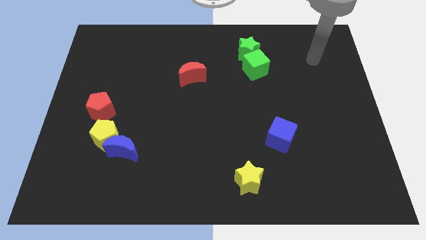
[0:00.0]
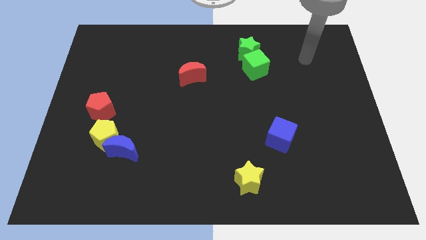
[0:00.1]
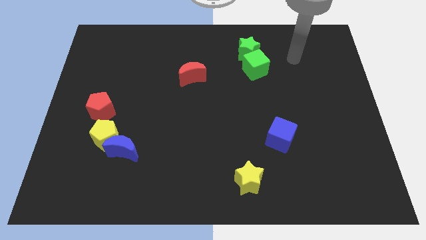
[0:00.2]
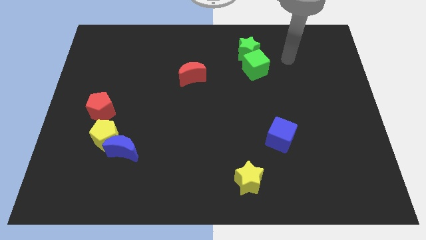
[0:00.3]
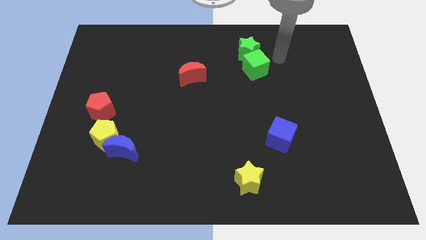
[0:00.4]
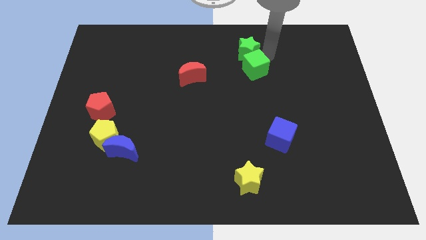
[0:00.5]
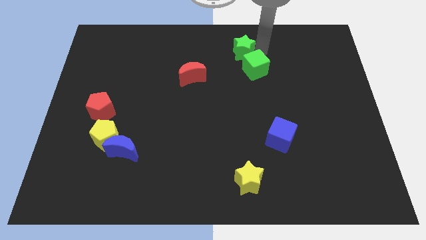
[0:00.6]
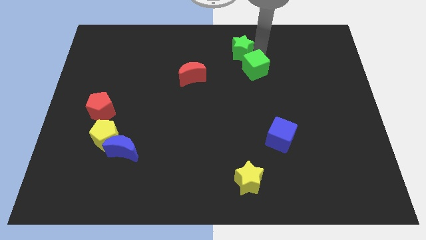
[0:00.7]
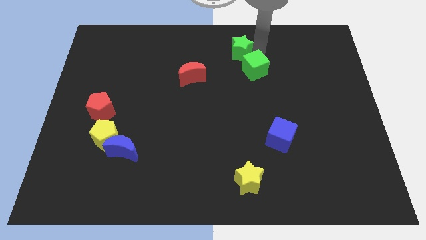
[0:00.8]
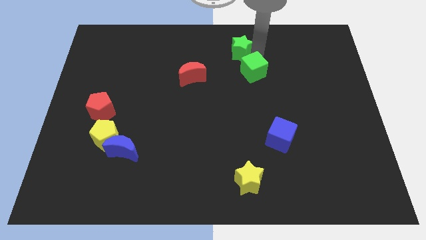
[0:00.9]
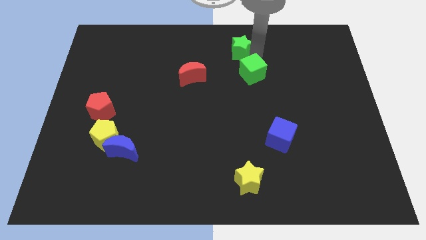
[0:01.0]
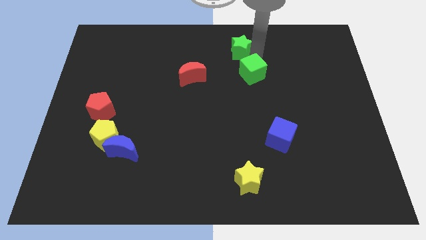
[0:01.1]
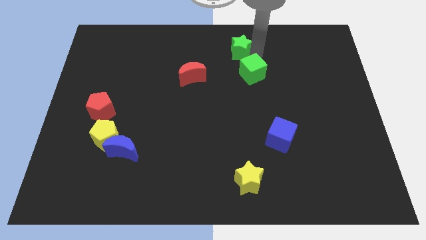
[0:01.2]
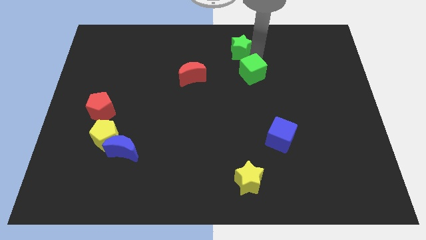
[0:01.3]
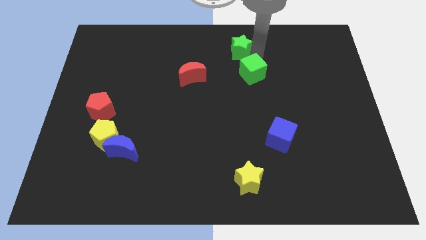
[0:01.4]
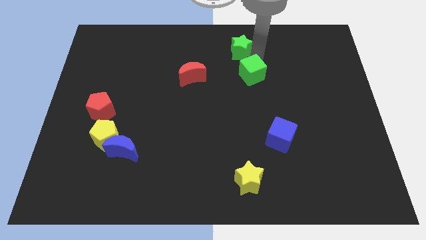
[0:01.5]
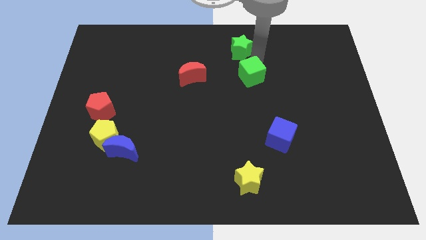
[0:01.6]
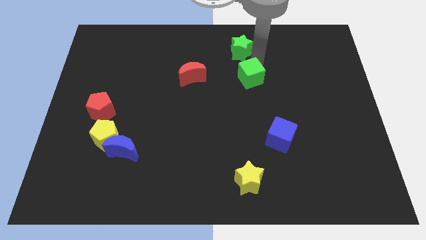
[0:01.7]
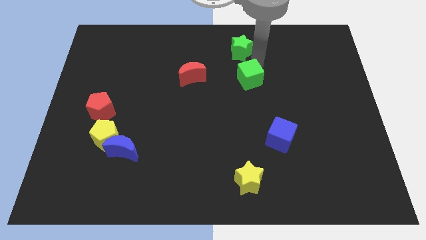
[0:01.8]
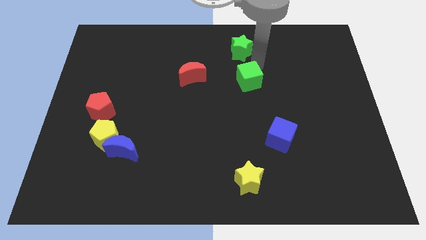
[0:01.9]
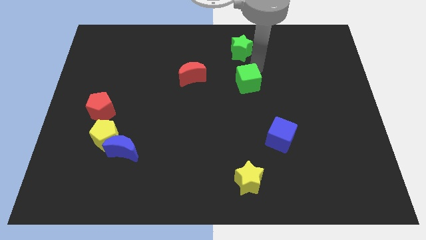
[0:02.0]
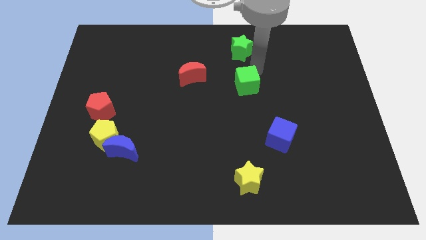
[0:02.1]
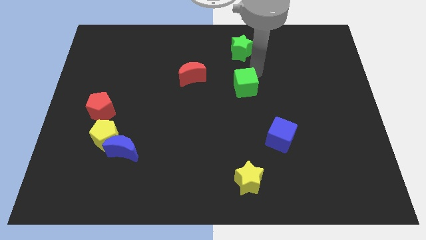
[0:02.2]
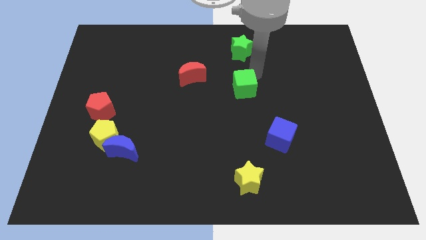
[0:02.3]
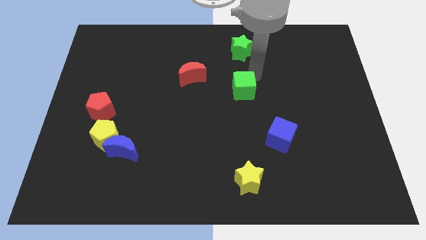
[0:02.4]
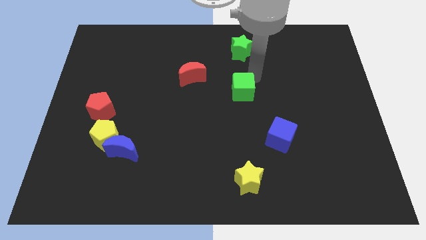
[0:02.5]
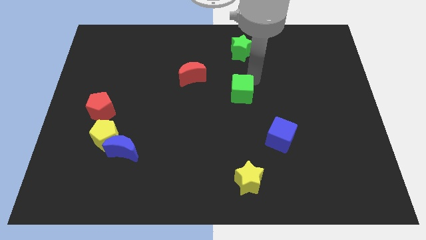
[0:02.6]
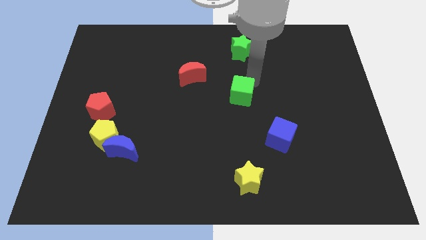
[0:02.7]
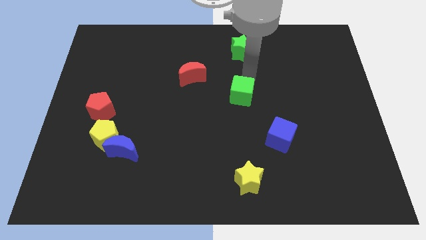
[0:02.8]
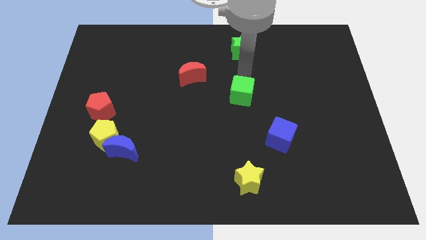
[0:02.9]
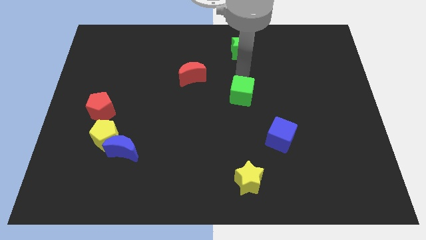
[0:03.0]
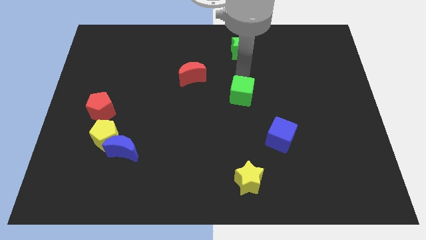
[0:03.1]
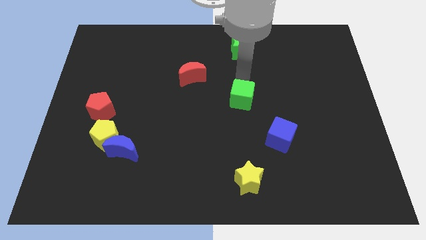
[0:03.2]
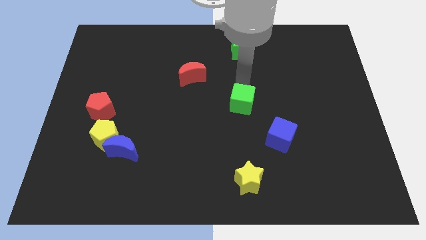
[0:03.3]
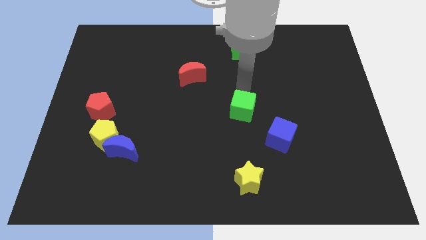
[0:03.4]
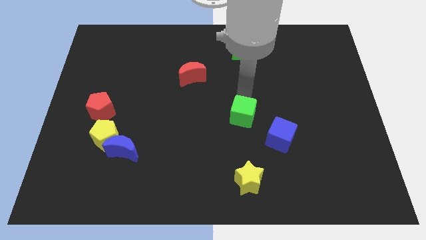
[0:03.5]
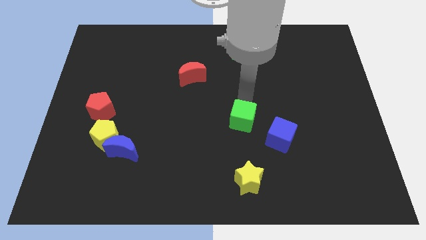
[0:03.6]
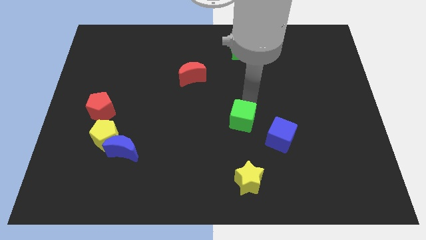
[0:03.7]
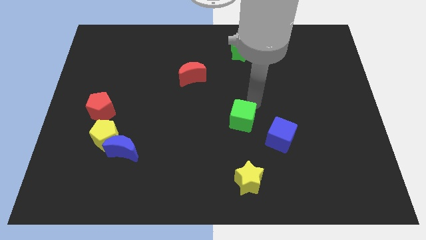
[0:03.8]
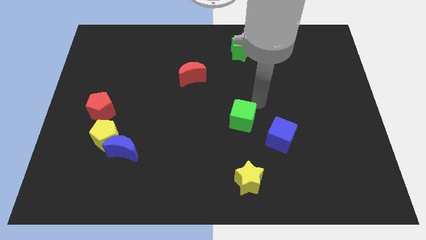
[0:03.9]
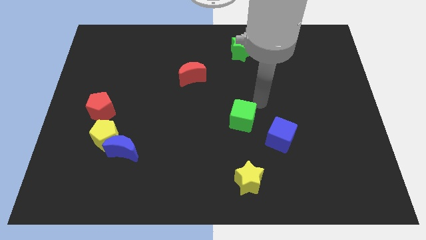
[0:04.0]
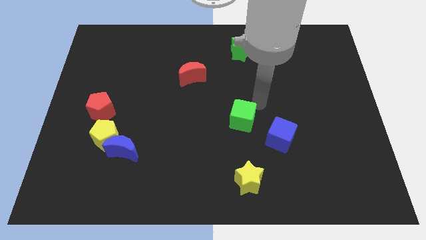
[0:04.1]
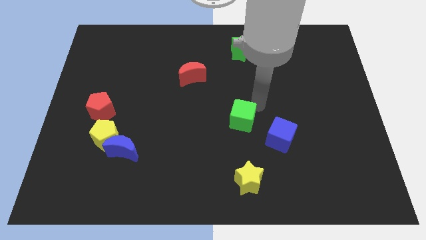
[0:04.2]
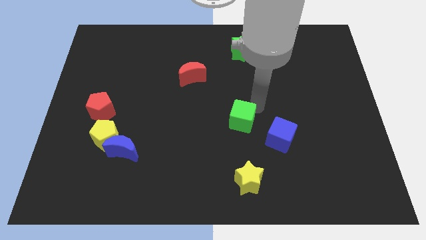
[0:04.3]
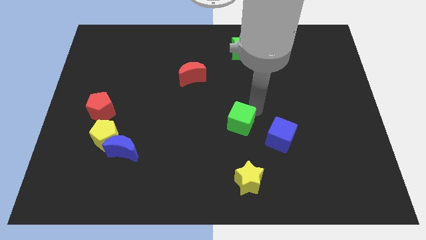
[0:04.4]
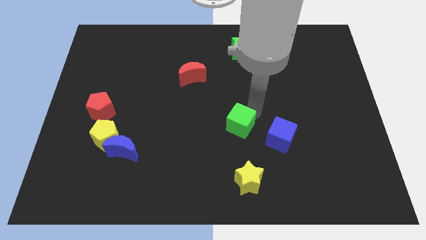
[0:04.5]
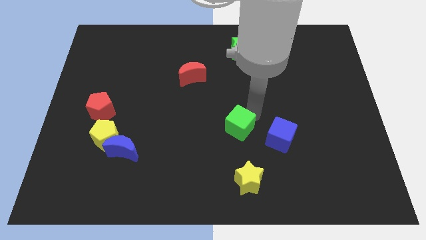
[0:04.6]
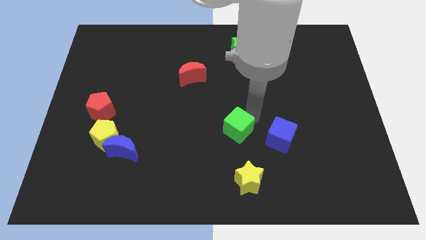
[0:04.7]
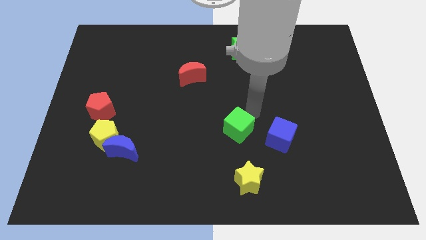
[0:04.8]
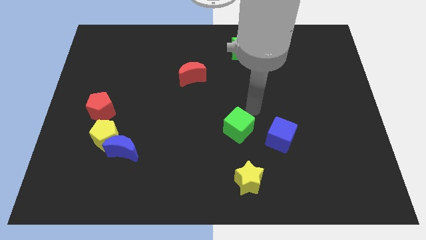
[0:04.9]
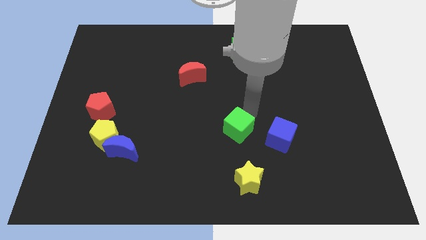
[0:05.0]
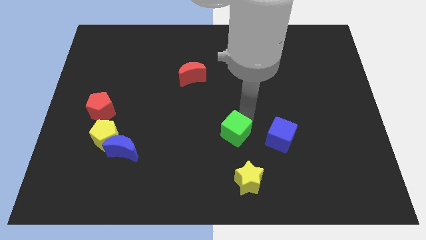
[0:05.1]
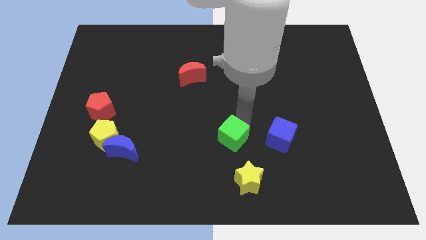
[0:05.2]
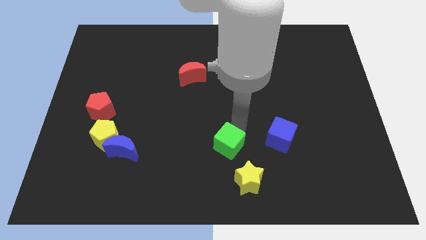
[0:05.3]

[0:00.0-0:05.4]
put the green cube to the top left side of the yellow star

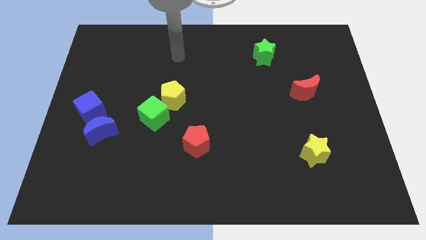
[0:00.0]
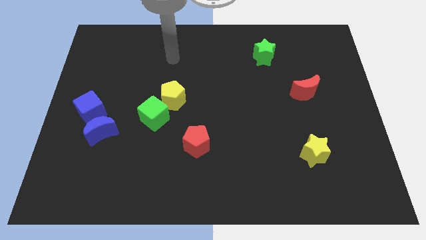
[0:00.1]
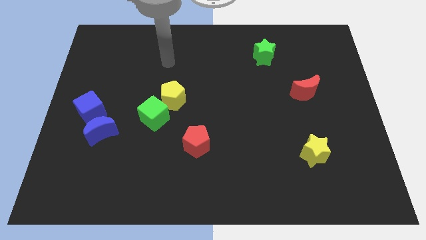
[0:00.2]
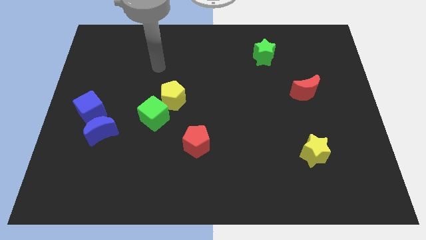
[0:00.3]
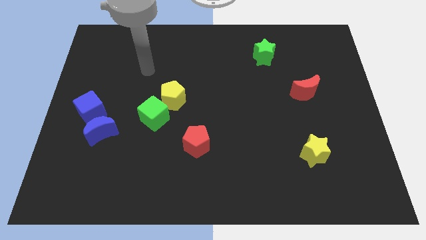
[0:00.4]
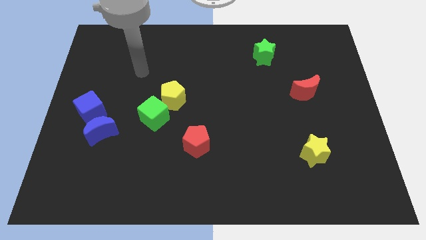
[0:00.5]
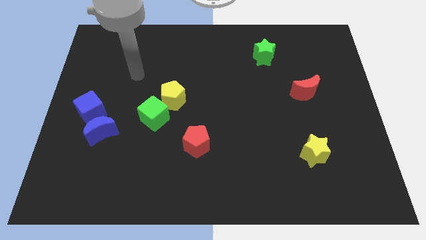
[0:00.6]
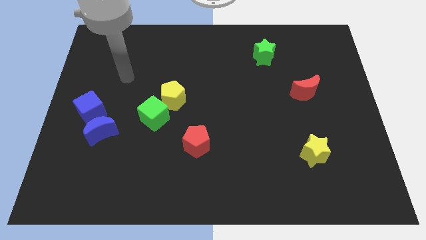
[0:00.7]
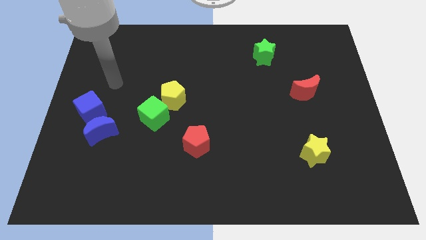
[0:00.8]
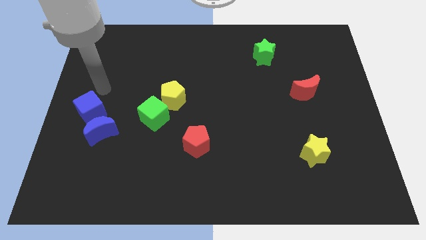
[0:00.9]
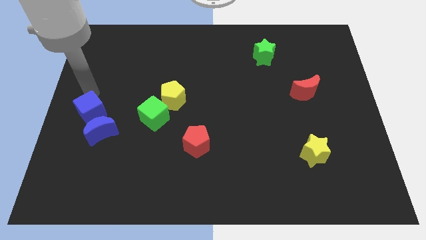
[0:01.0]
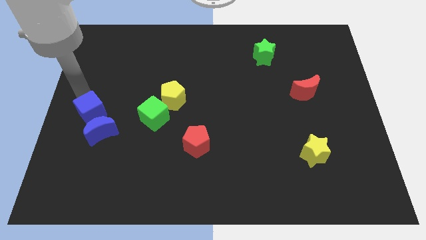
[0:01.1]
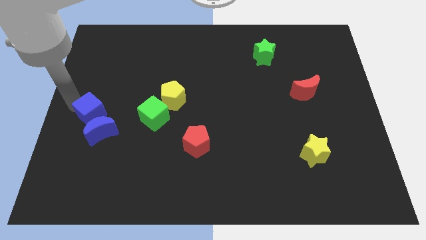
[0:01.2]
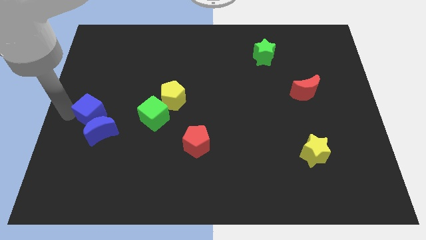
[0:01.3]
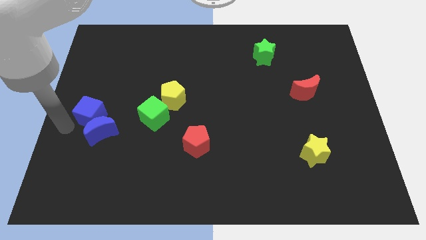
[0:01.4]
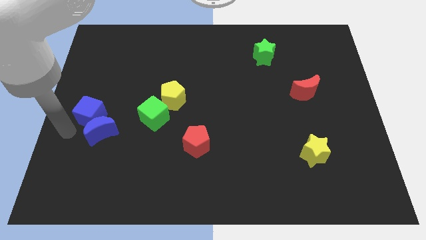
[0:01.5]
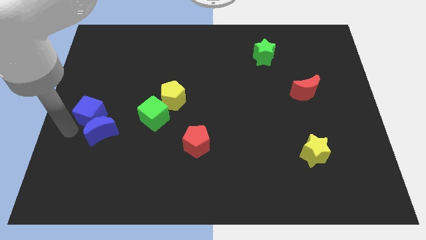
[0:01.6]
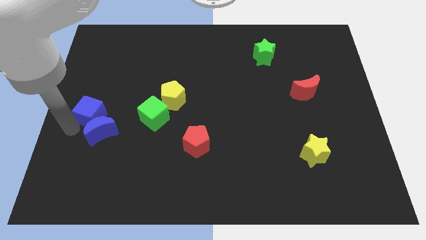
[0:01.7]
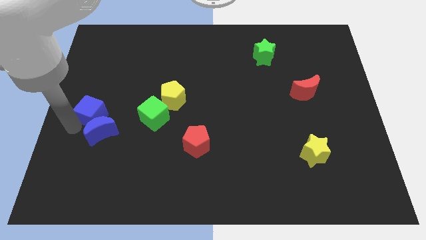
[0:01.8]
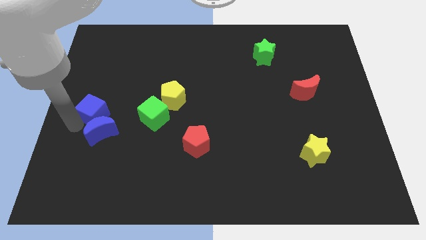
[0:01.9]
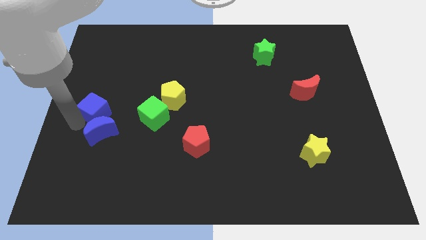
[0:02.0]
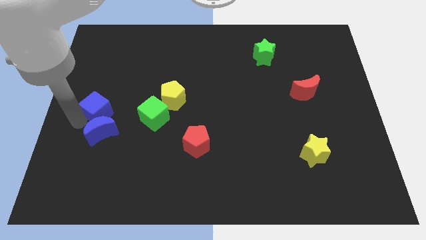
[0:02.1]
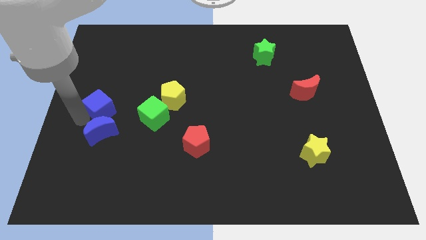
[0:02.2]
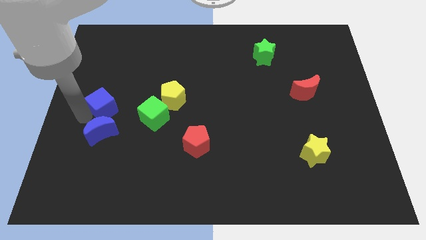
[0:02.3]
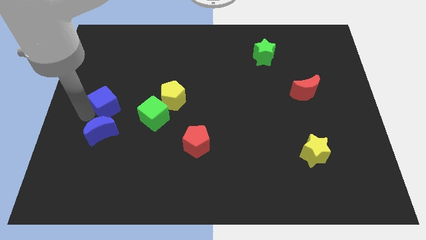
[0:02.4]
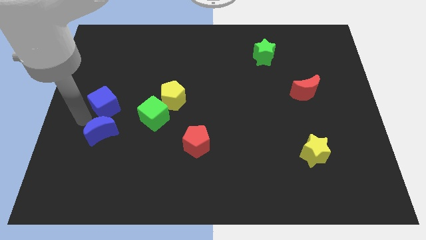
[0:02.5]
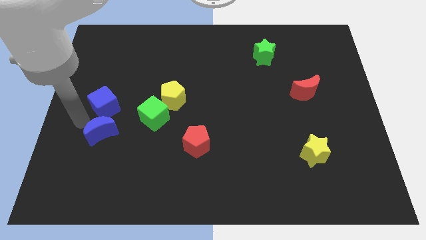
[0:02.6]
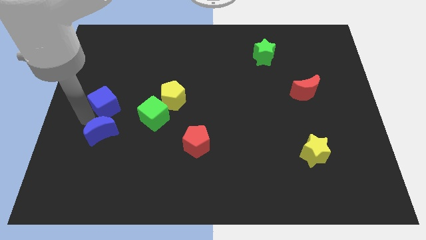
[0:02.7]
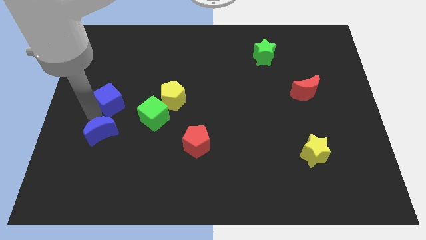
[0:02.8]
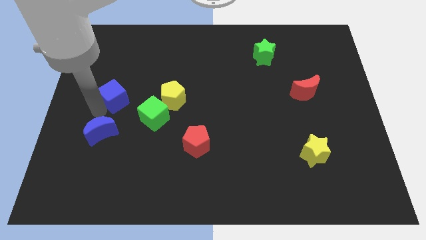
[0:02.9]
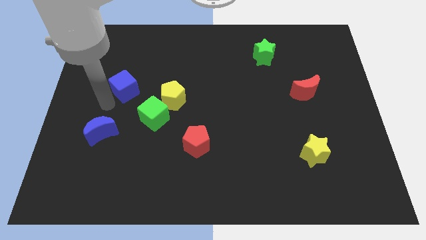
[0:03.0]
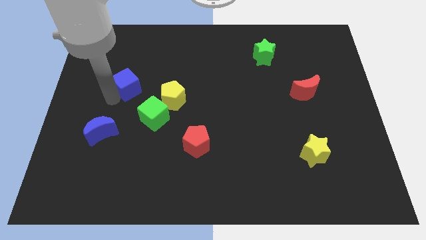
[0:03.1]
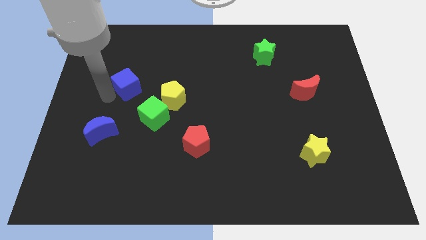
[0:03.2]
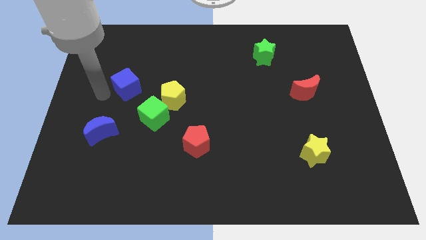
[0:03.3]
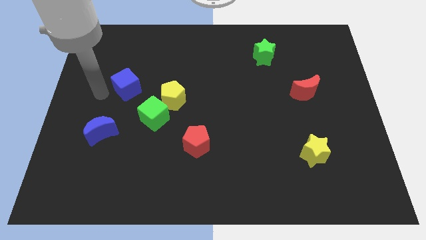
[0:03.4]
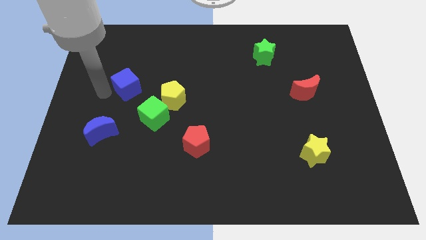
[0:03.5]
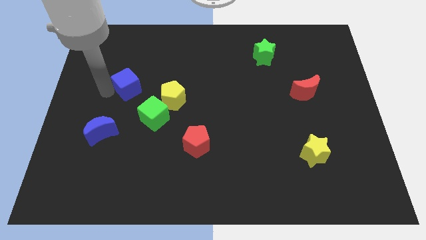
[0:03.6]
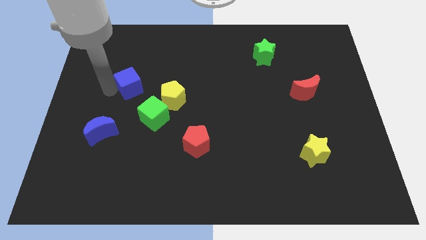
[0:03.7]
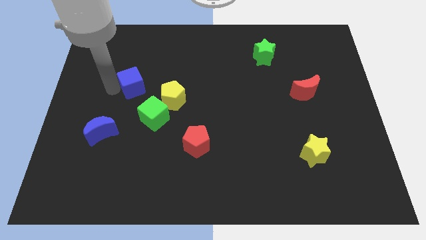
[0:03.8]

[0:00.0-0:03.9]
put the blue cube to the top left side of the yellow pentagon
